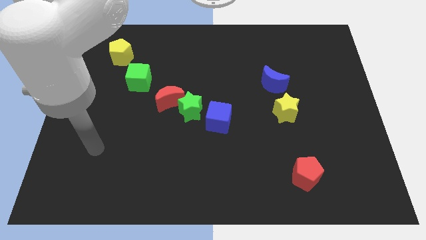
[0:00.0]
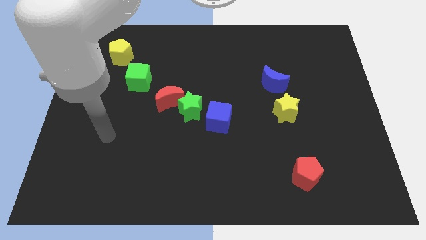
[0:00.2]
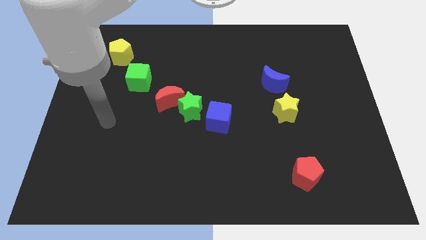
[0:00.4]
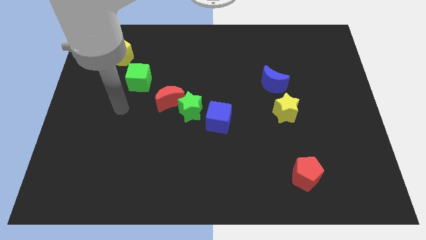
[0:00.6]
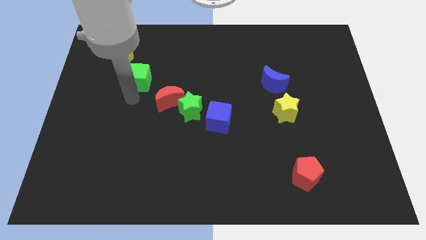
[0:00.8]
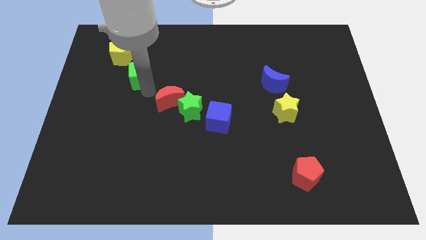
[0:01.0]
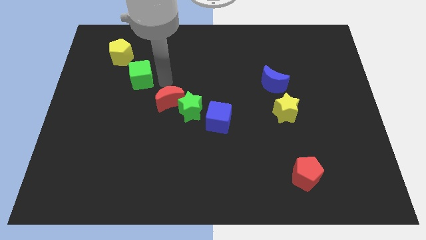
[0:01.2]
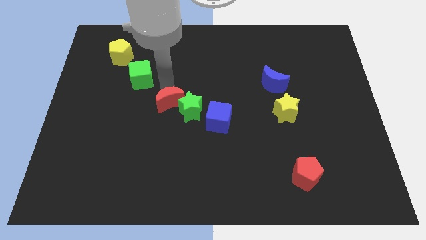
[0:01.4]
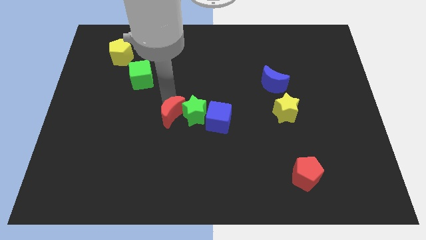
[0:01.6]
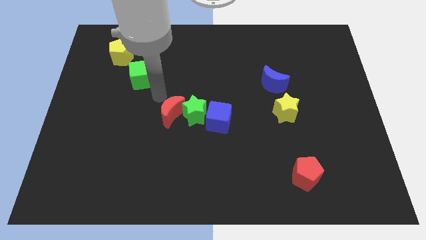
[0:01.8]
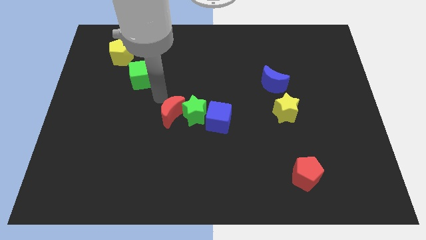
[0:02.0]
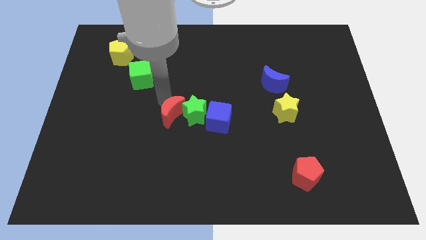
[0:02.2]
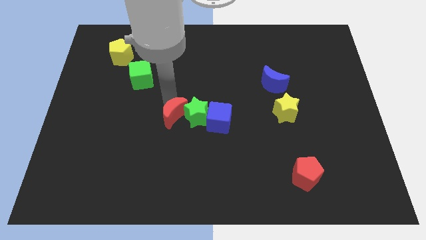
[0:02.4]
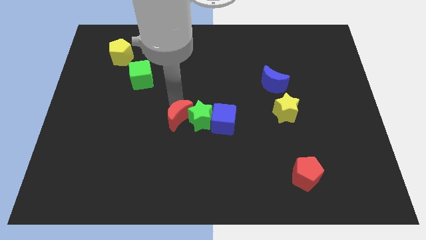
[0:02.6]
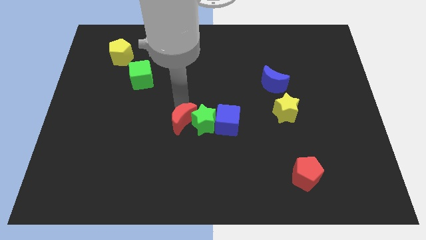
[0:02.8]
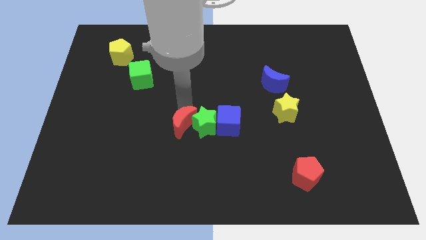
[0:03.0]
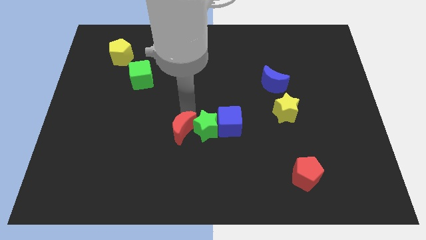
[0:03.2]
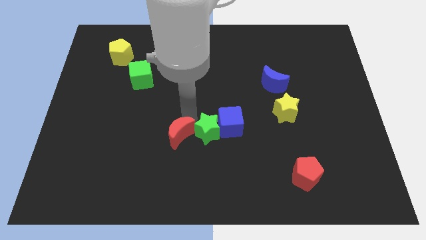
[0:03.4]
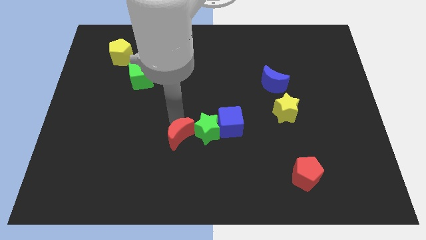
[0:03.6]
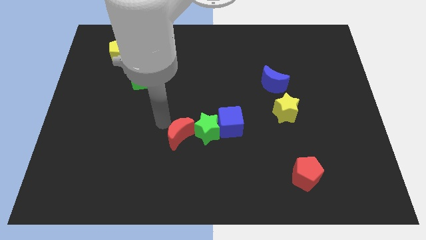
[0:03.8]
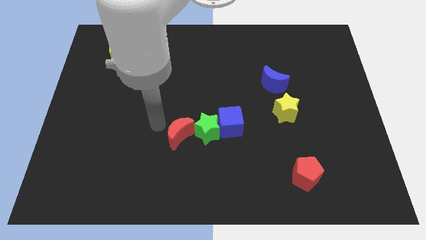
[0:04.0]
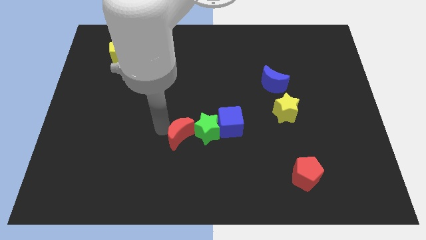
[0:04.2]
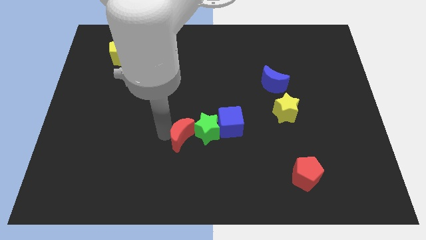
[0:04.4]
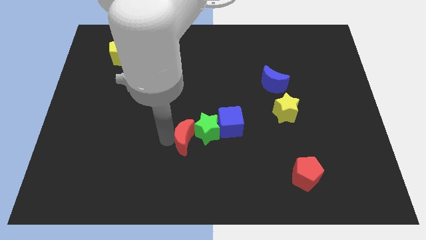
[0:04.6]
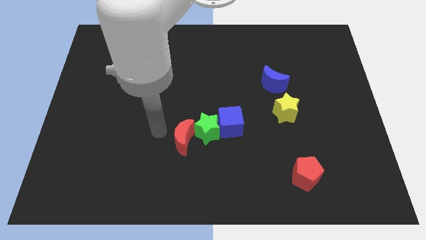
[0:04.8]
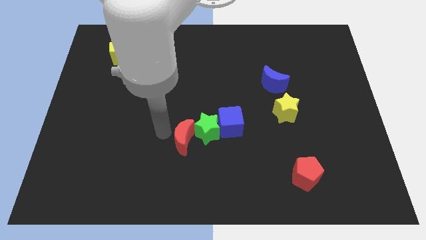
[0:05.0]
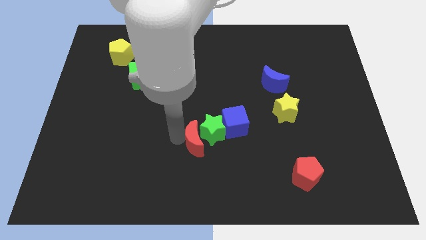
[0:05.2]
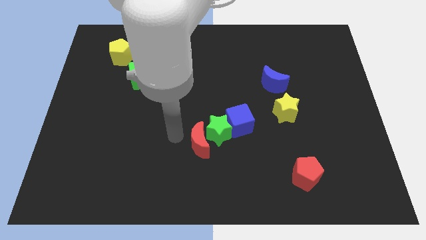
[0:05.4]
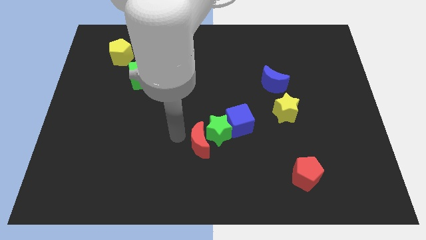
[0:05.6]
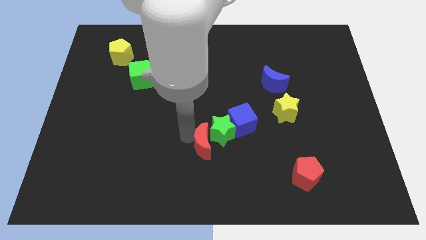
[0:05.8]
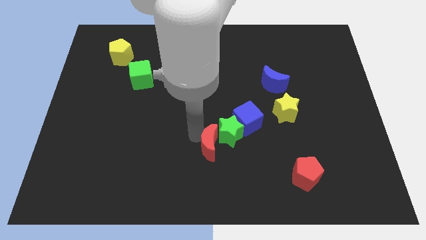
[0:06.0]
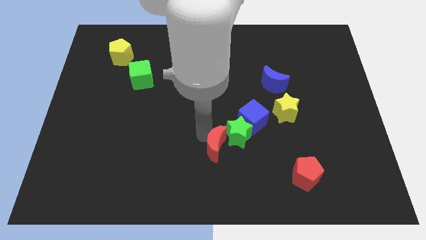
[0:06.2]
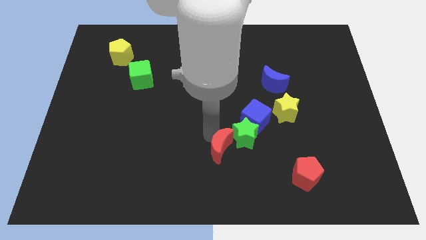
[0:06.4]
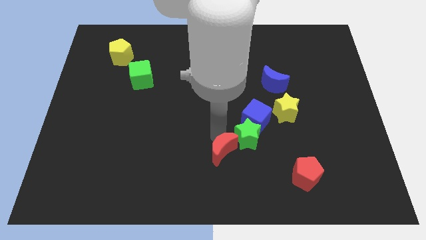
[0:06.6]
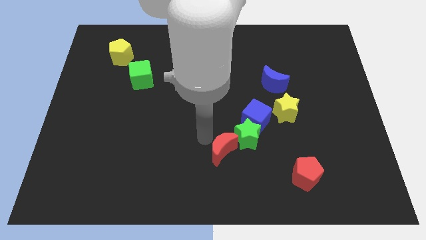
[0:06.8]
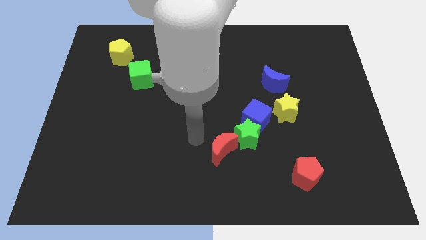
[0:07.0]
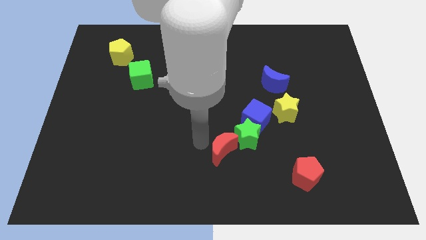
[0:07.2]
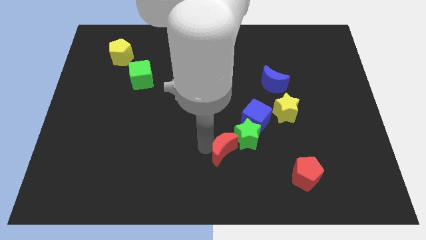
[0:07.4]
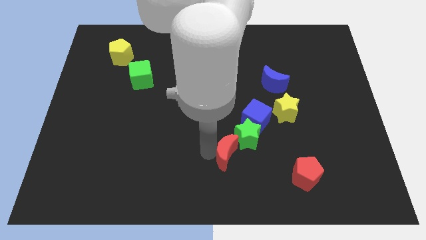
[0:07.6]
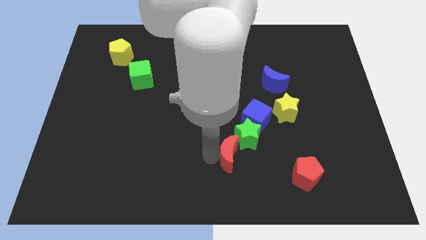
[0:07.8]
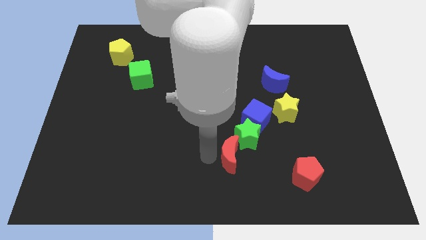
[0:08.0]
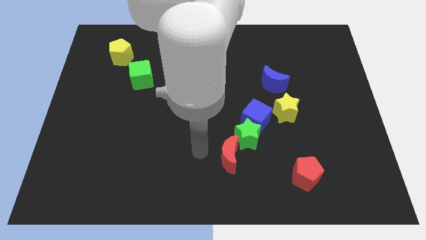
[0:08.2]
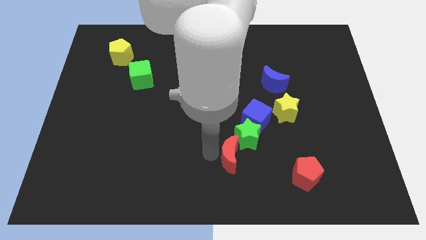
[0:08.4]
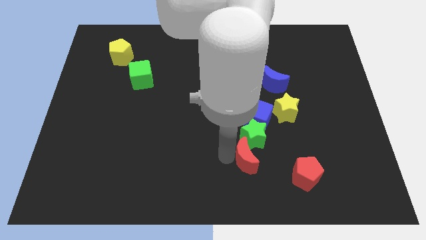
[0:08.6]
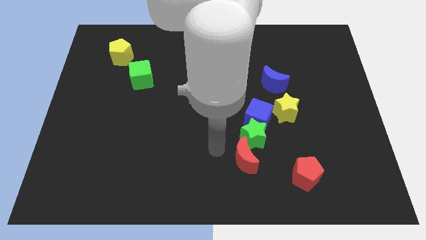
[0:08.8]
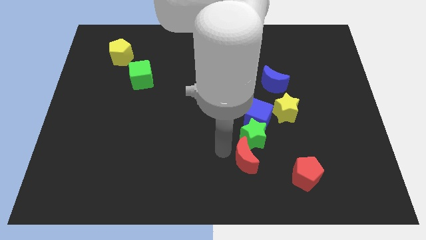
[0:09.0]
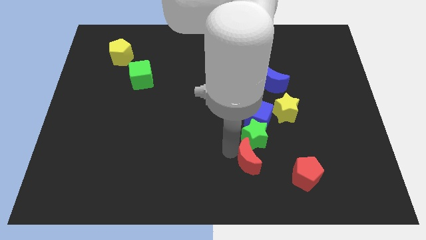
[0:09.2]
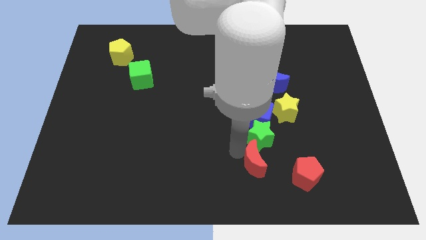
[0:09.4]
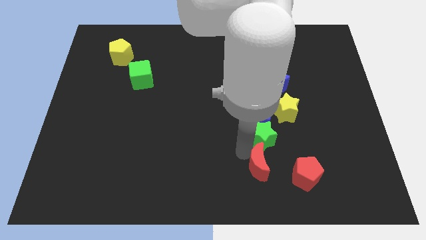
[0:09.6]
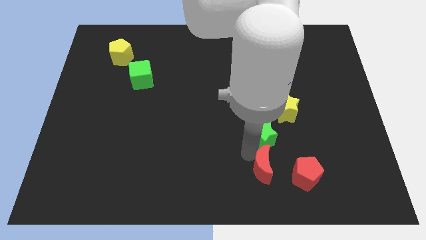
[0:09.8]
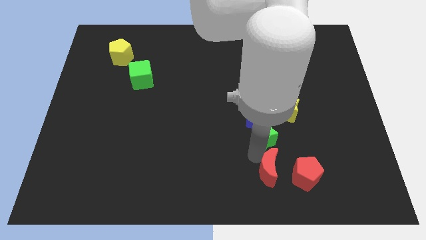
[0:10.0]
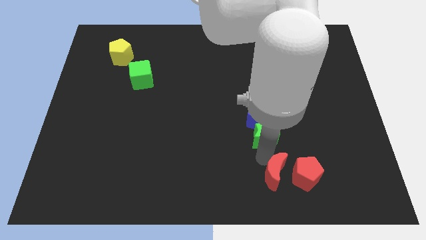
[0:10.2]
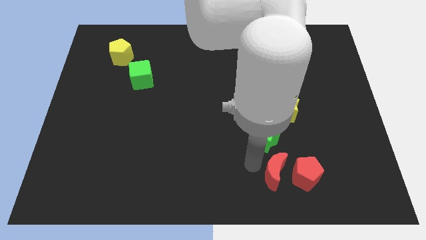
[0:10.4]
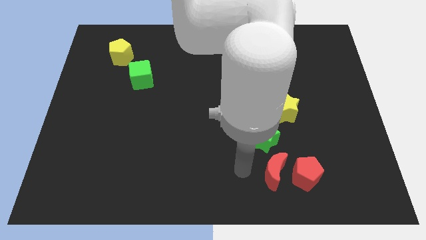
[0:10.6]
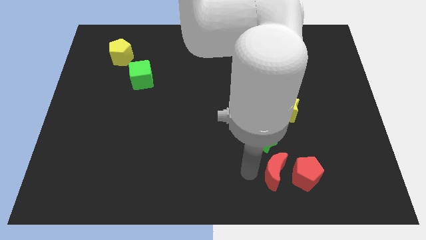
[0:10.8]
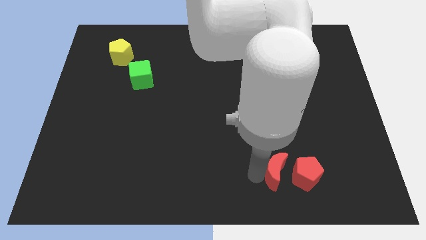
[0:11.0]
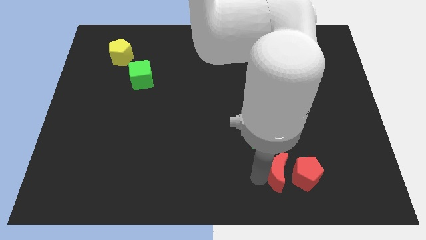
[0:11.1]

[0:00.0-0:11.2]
move the red moon close to the red pentagon

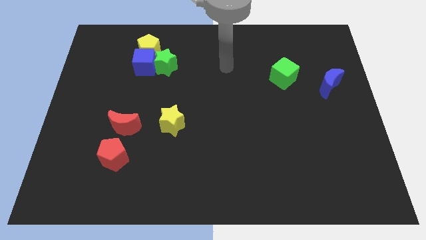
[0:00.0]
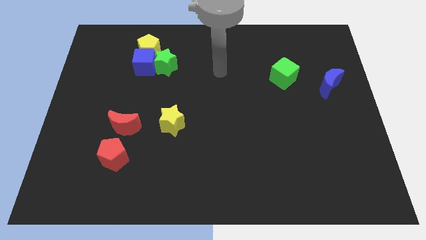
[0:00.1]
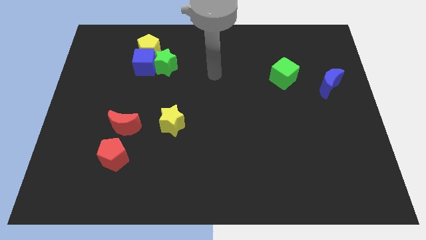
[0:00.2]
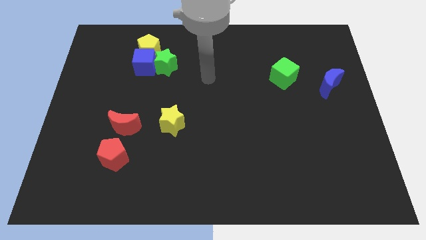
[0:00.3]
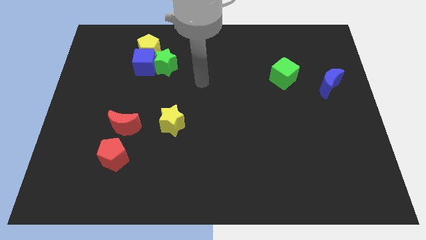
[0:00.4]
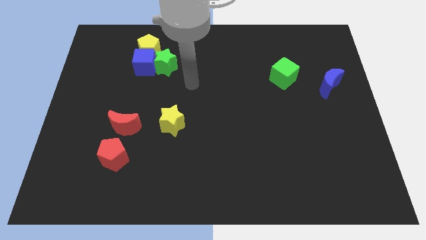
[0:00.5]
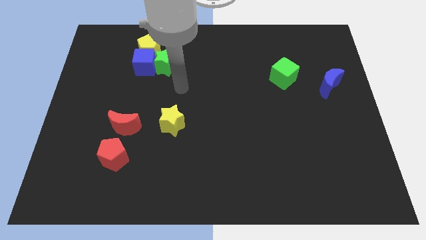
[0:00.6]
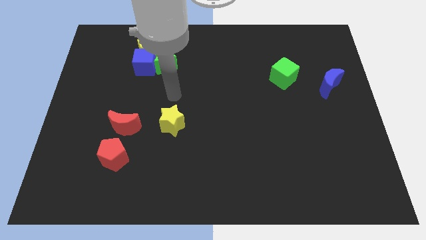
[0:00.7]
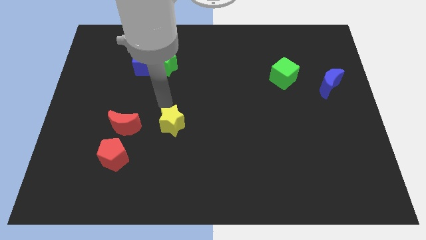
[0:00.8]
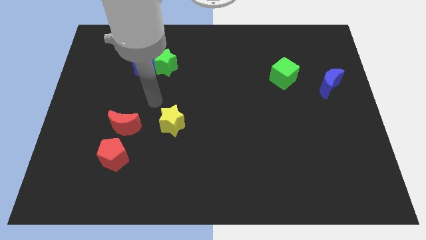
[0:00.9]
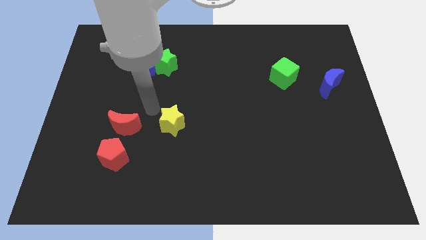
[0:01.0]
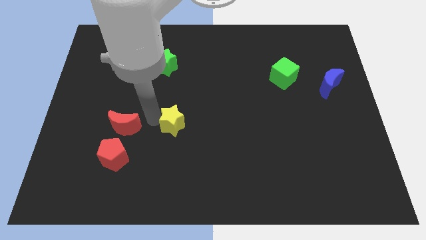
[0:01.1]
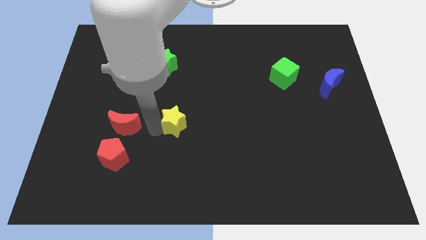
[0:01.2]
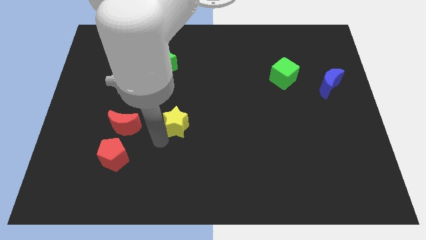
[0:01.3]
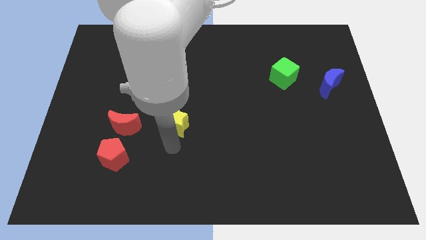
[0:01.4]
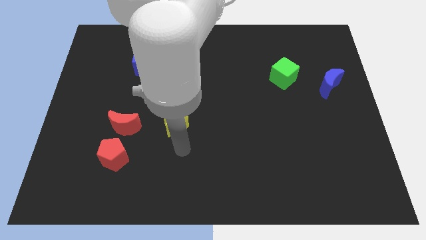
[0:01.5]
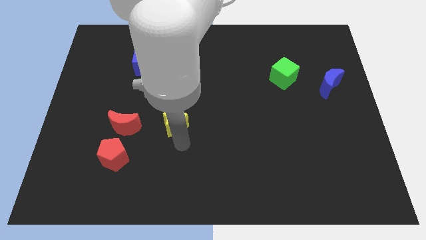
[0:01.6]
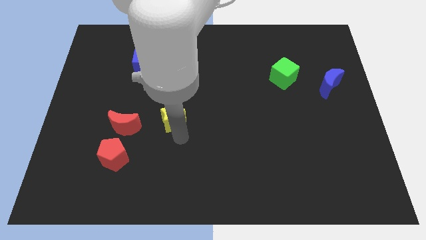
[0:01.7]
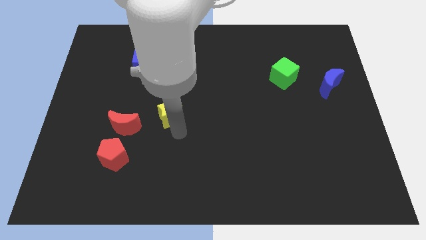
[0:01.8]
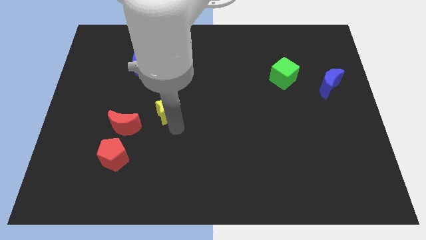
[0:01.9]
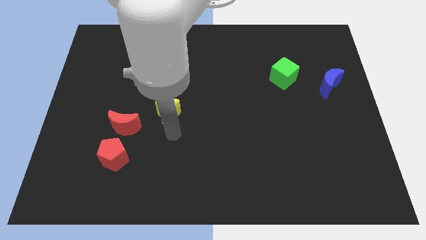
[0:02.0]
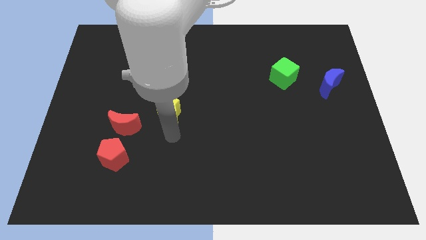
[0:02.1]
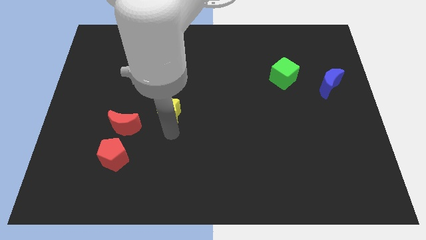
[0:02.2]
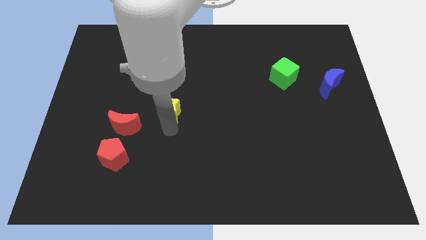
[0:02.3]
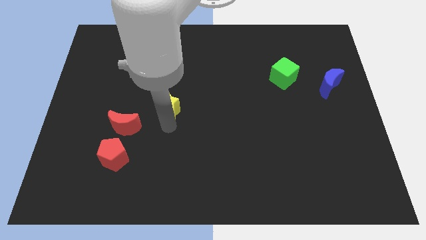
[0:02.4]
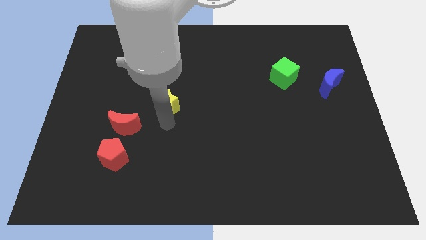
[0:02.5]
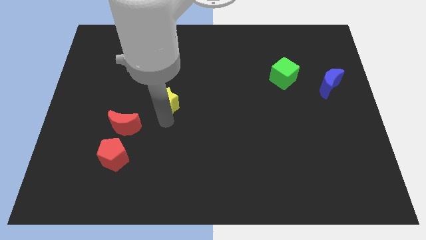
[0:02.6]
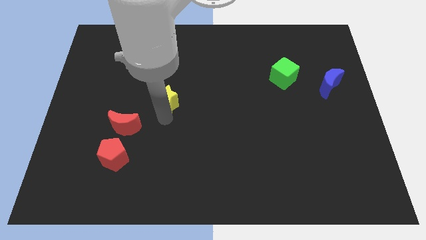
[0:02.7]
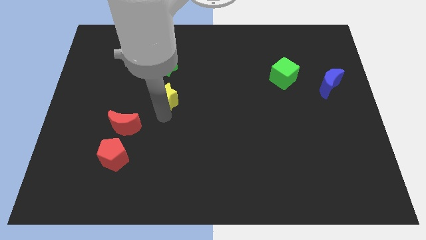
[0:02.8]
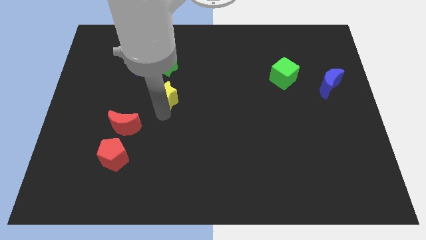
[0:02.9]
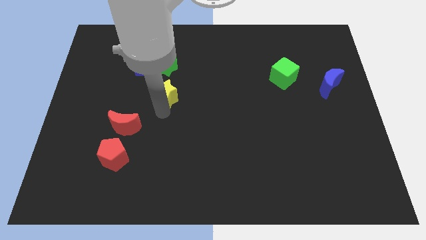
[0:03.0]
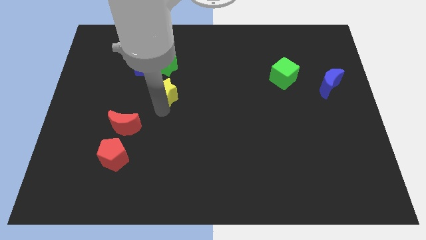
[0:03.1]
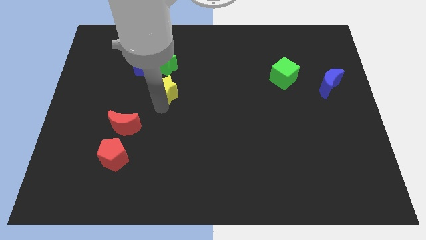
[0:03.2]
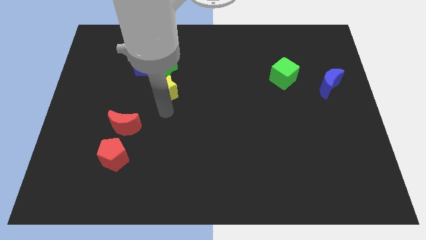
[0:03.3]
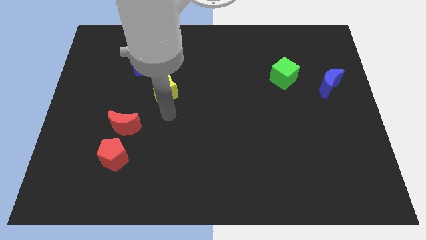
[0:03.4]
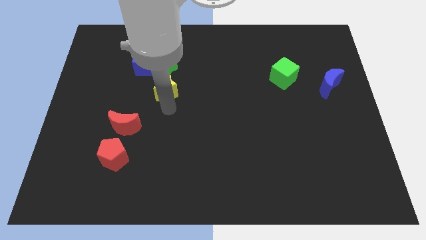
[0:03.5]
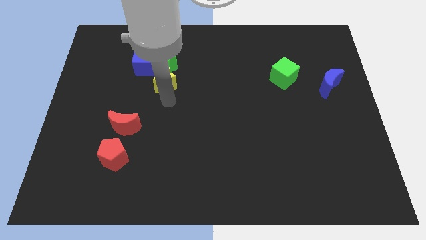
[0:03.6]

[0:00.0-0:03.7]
slide the yellow star to the green star
